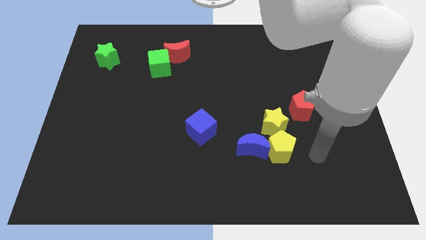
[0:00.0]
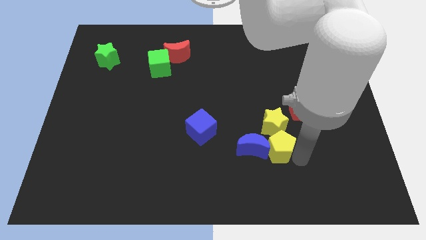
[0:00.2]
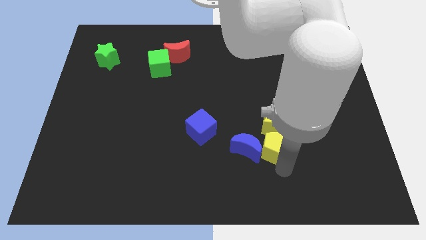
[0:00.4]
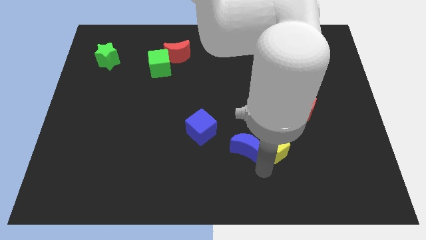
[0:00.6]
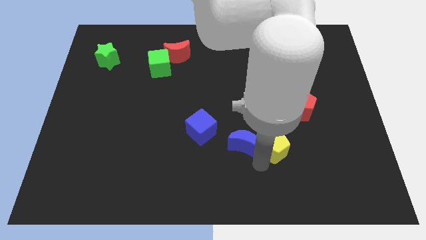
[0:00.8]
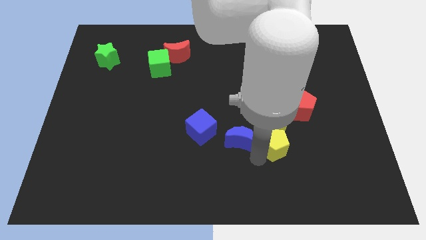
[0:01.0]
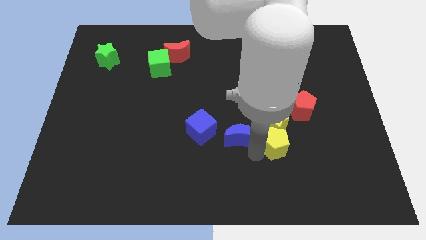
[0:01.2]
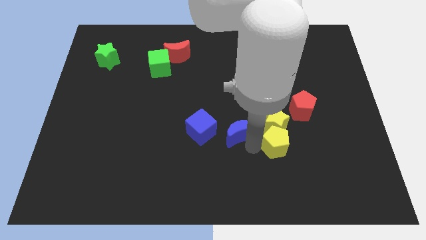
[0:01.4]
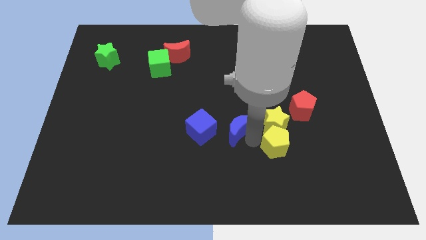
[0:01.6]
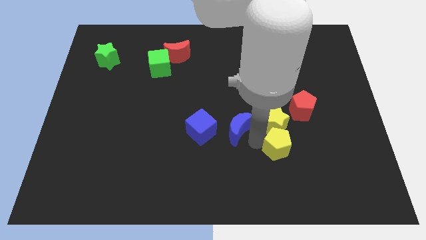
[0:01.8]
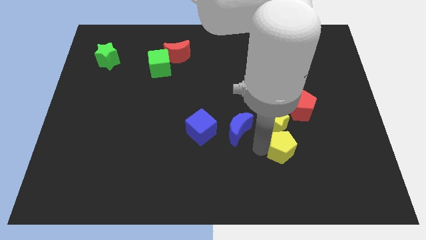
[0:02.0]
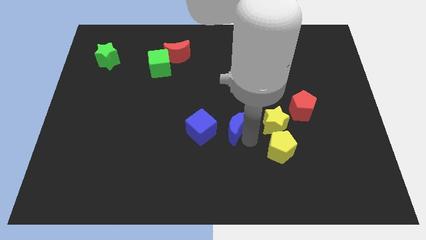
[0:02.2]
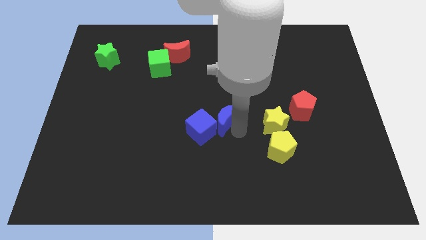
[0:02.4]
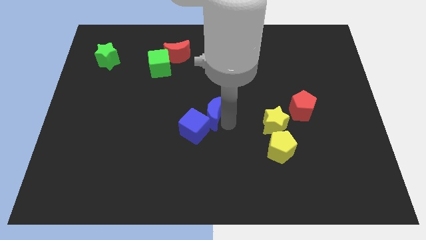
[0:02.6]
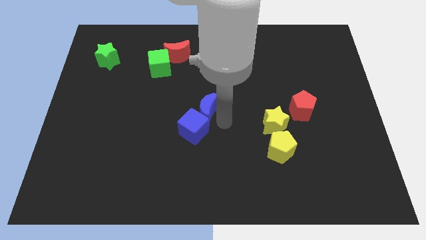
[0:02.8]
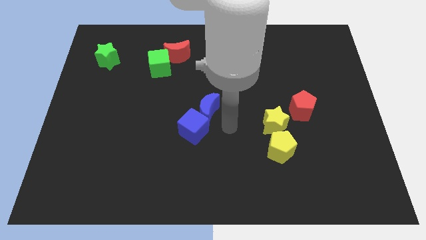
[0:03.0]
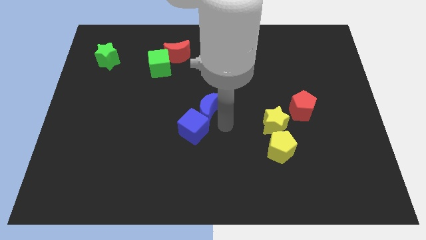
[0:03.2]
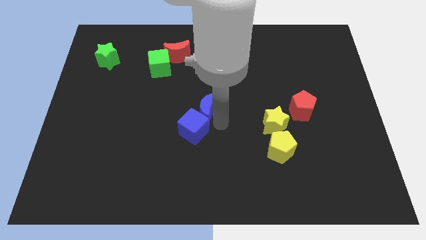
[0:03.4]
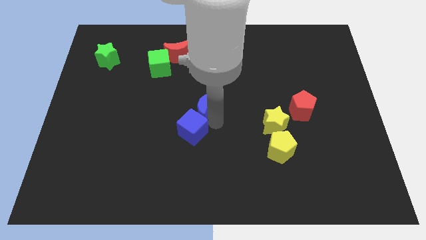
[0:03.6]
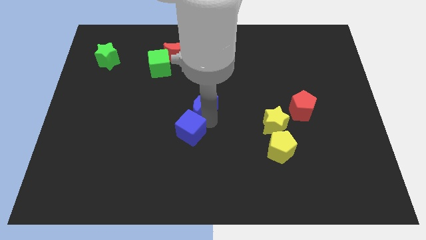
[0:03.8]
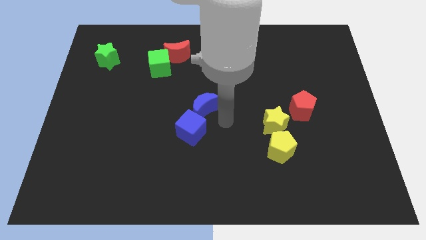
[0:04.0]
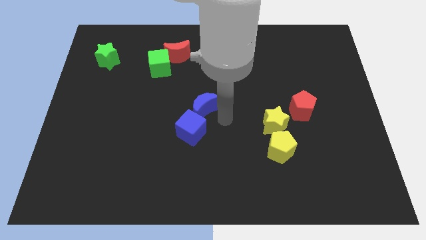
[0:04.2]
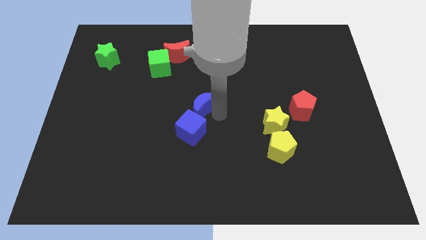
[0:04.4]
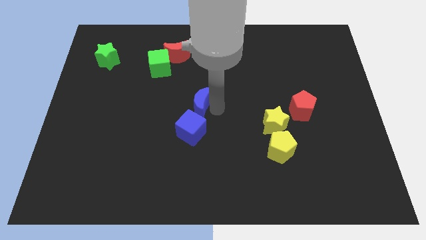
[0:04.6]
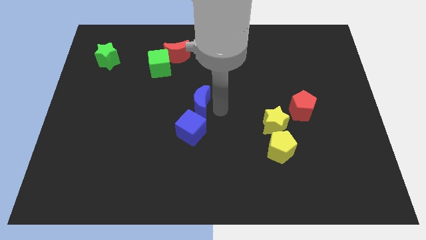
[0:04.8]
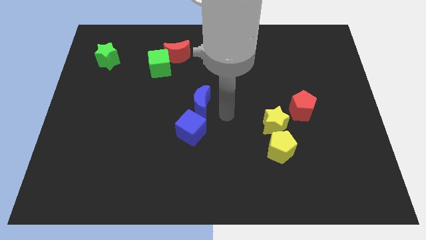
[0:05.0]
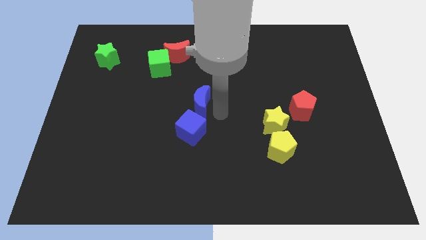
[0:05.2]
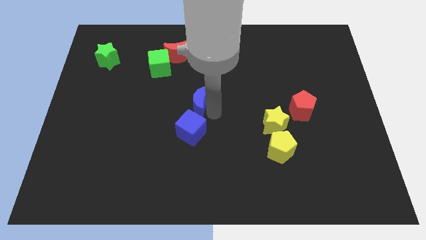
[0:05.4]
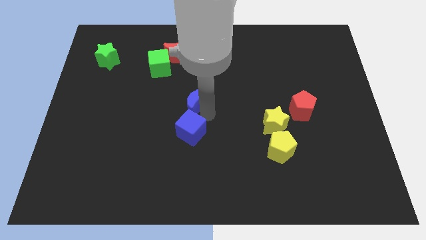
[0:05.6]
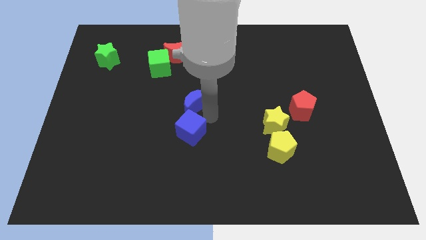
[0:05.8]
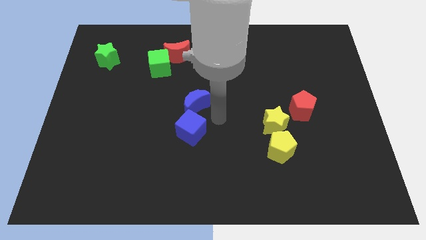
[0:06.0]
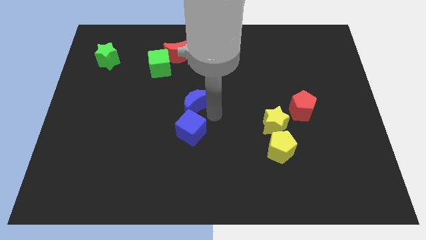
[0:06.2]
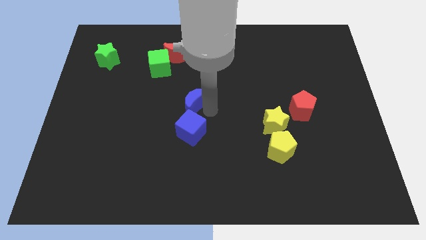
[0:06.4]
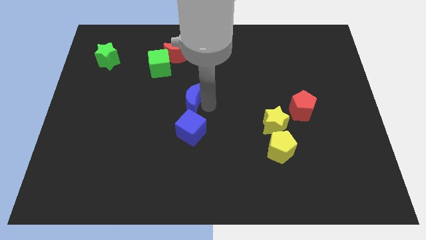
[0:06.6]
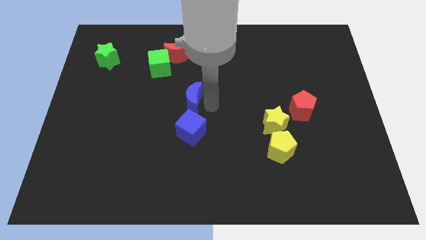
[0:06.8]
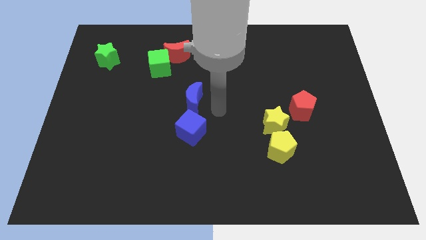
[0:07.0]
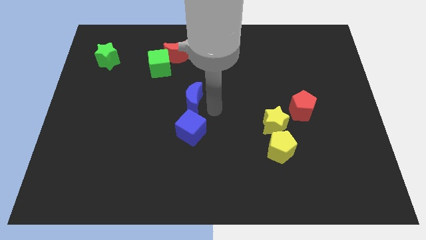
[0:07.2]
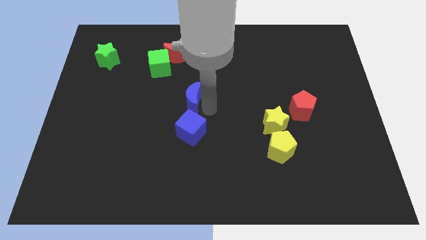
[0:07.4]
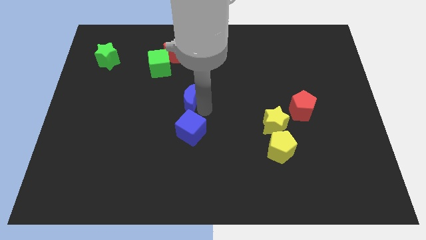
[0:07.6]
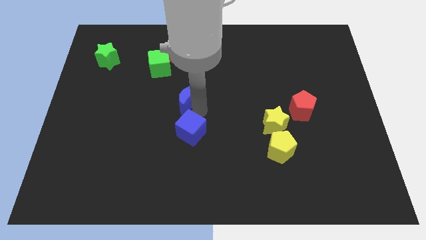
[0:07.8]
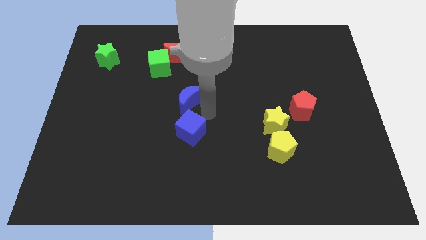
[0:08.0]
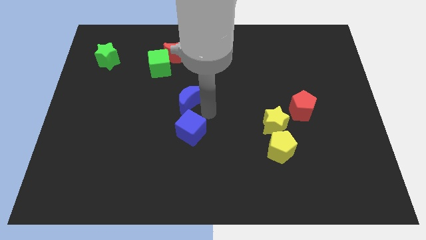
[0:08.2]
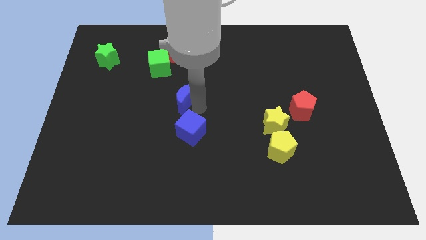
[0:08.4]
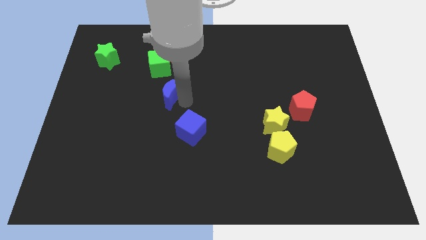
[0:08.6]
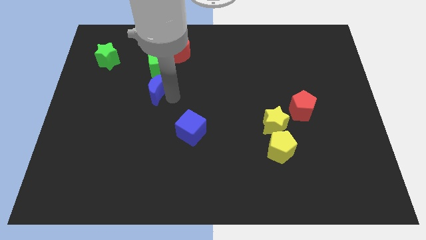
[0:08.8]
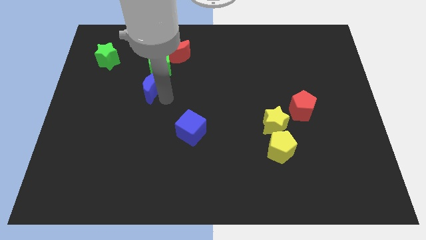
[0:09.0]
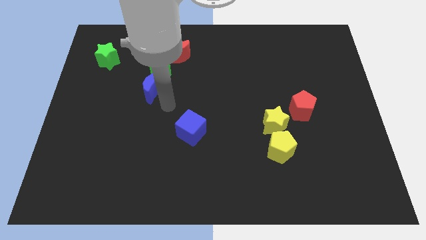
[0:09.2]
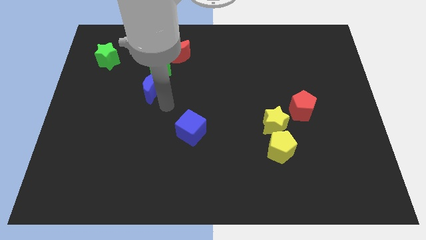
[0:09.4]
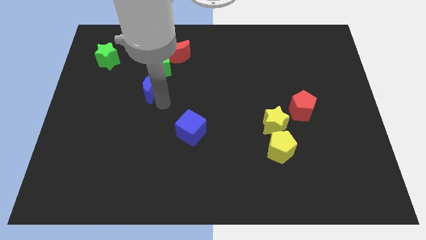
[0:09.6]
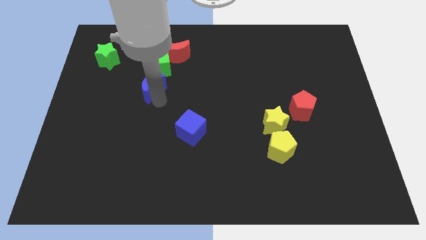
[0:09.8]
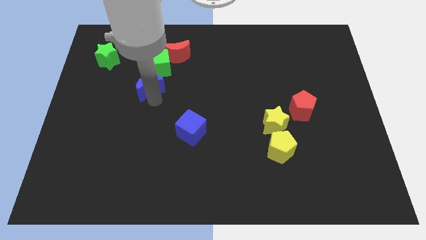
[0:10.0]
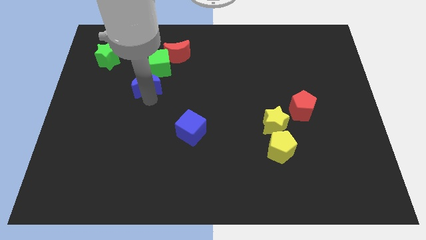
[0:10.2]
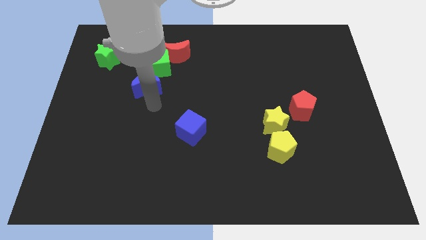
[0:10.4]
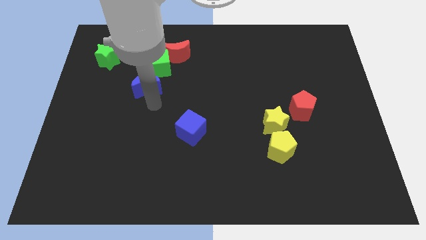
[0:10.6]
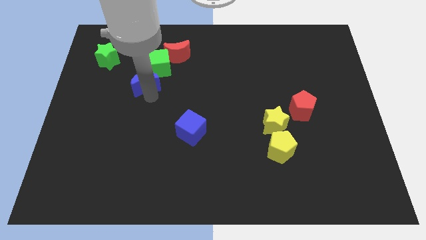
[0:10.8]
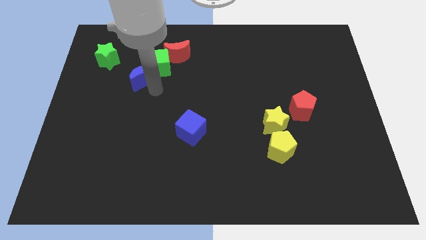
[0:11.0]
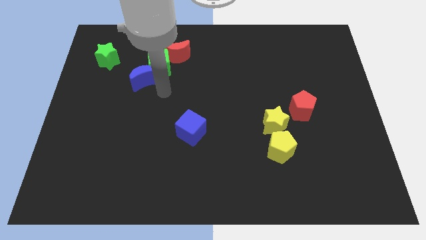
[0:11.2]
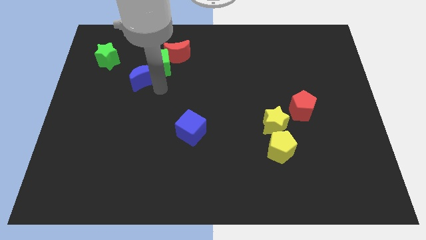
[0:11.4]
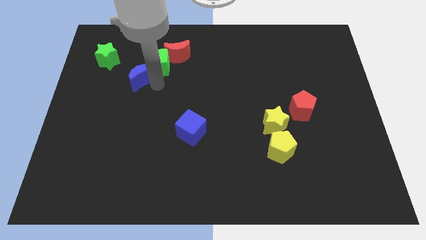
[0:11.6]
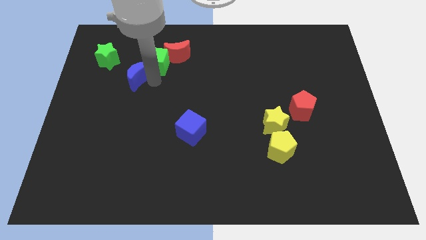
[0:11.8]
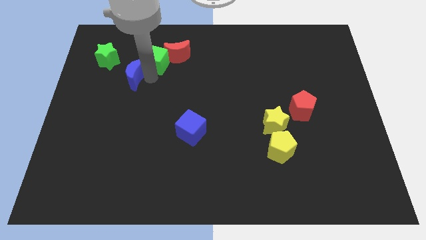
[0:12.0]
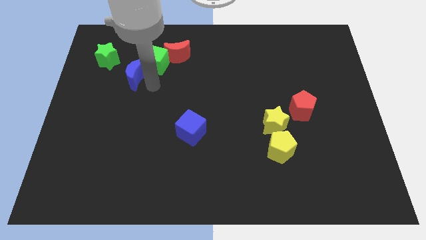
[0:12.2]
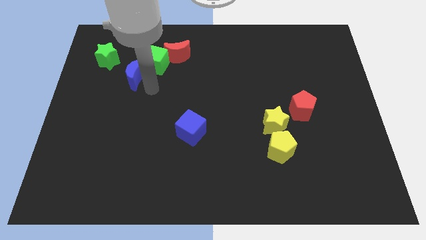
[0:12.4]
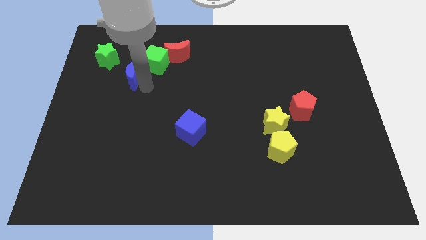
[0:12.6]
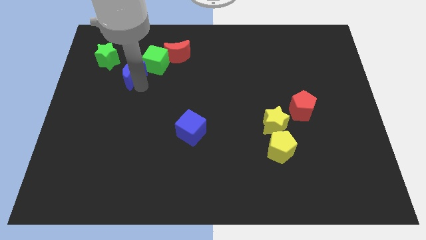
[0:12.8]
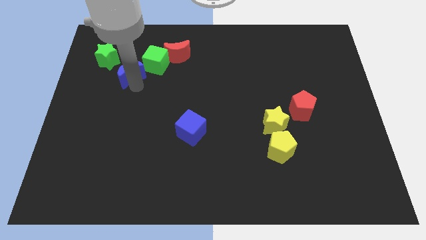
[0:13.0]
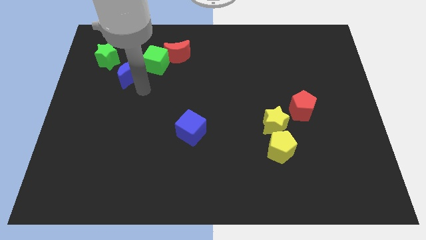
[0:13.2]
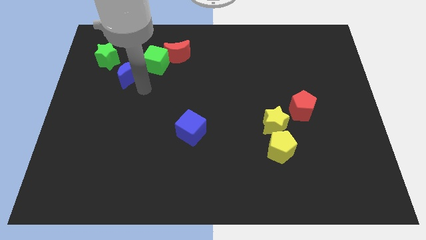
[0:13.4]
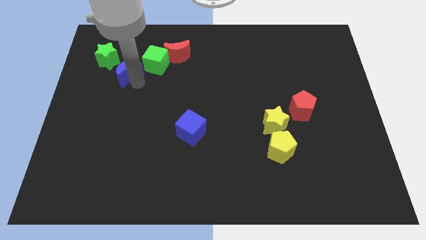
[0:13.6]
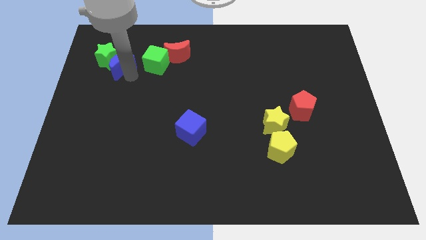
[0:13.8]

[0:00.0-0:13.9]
slide the blue moon towards the green star

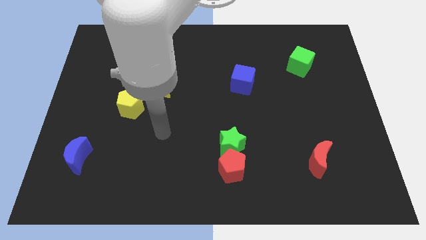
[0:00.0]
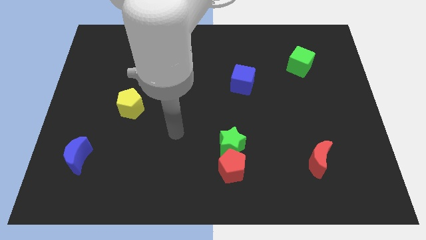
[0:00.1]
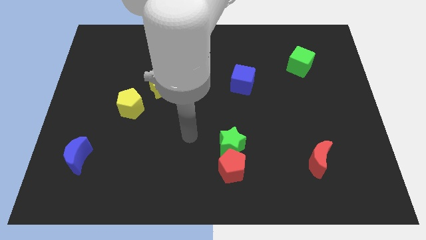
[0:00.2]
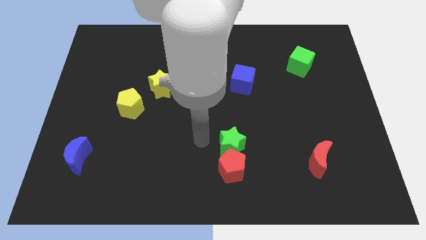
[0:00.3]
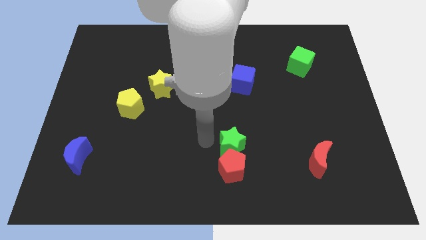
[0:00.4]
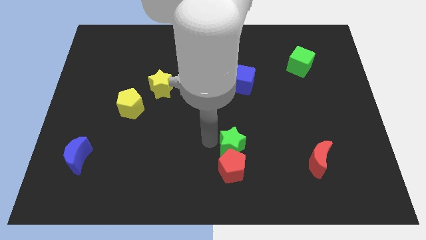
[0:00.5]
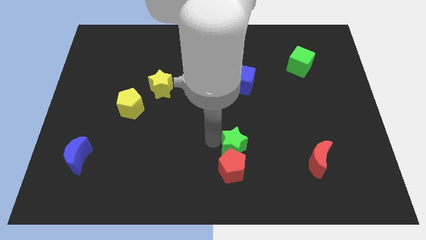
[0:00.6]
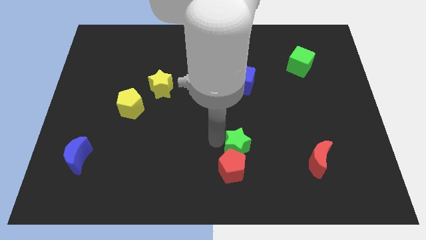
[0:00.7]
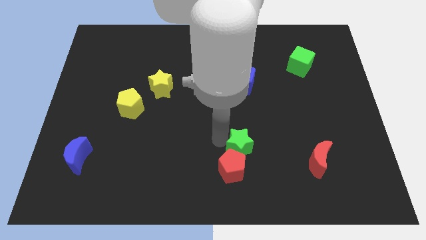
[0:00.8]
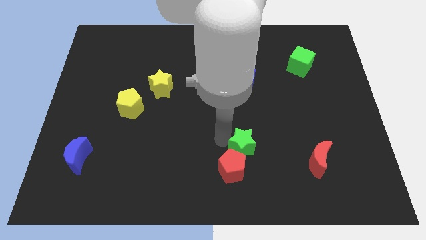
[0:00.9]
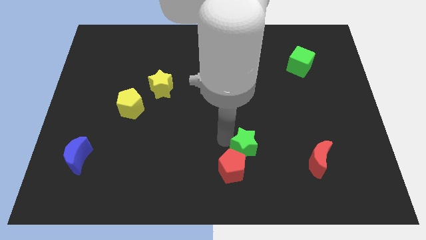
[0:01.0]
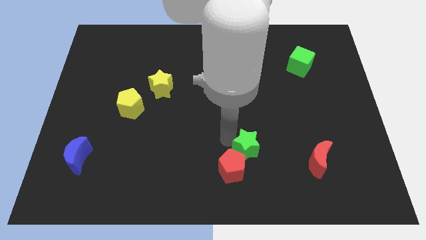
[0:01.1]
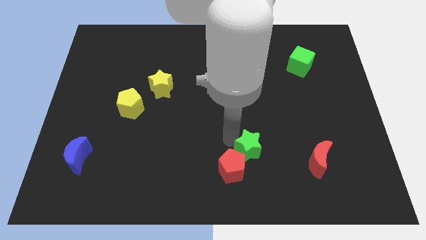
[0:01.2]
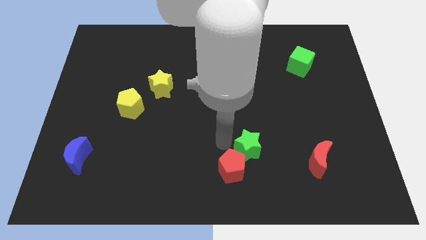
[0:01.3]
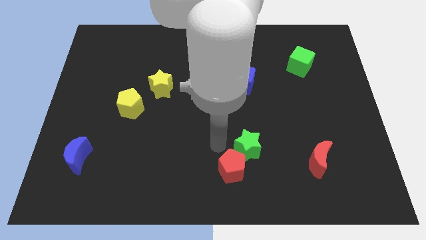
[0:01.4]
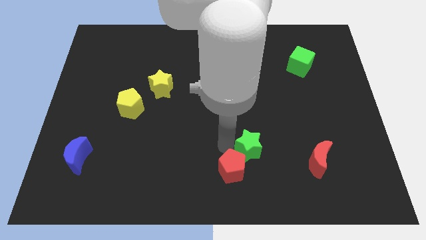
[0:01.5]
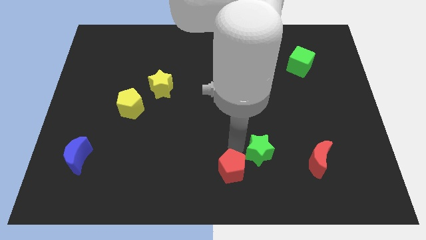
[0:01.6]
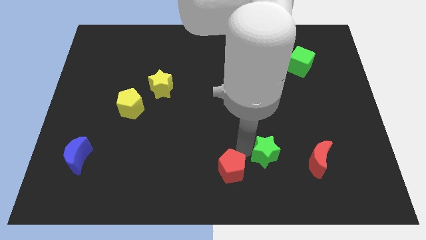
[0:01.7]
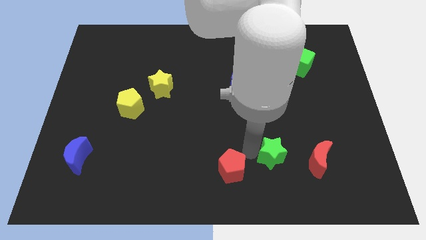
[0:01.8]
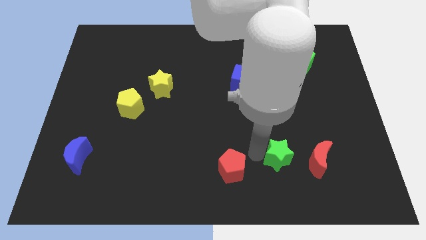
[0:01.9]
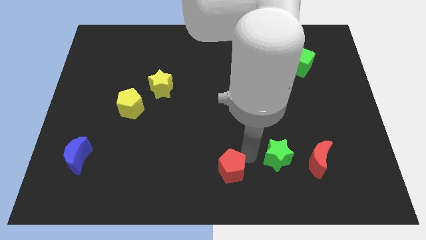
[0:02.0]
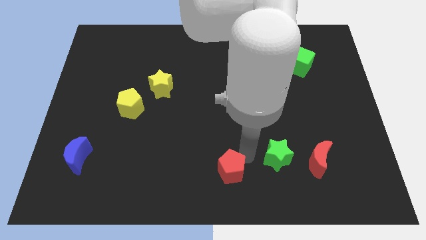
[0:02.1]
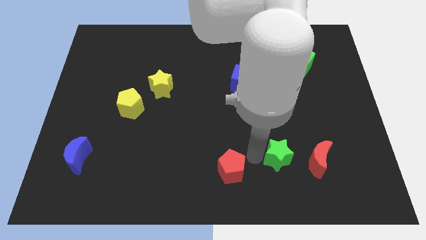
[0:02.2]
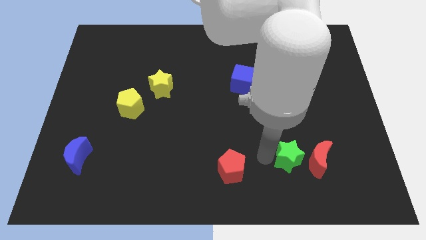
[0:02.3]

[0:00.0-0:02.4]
push the green star towards the red moon
